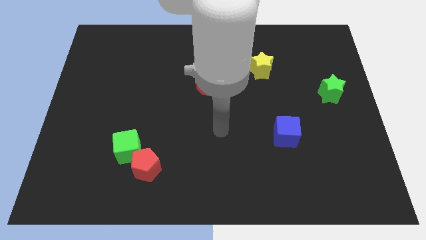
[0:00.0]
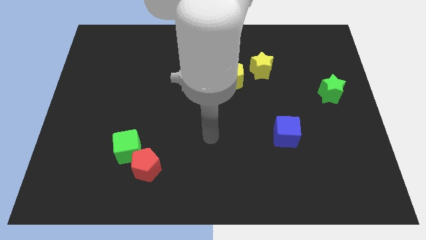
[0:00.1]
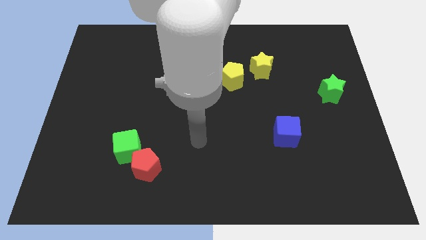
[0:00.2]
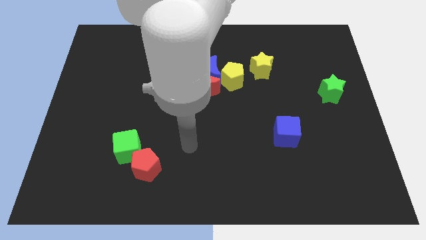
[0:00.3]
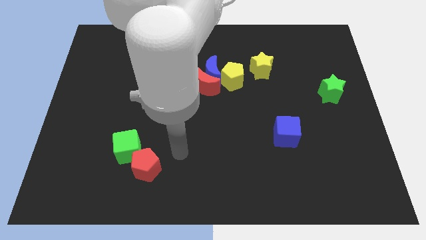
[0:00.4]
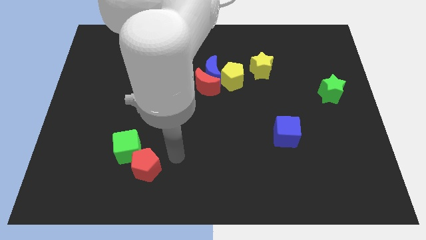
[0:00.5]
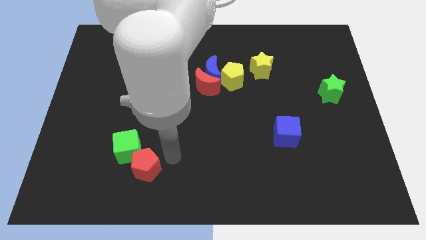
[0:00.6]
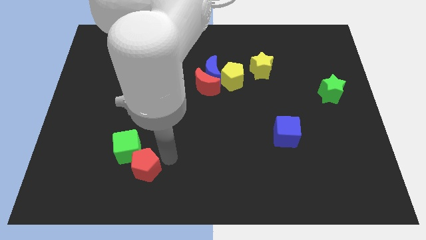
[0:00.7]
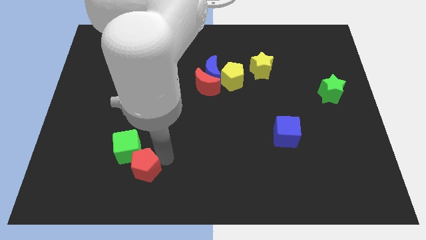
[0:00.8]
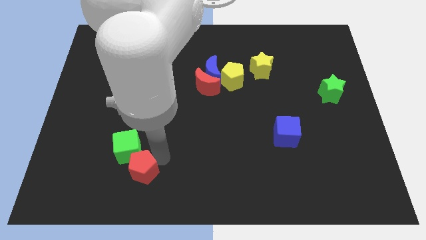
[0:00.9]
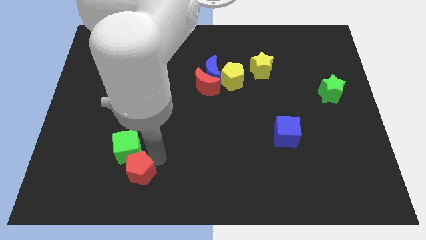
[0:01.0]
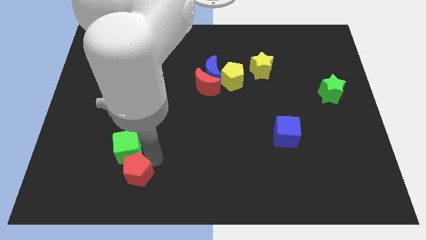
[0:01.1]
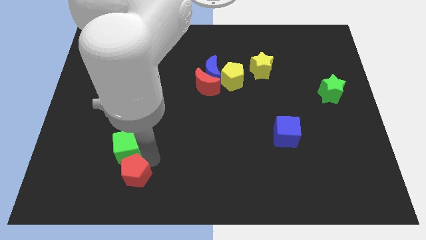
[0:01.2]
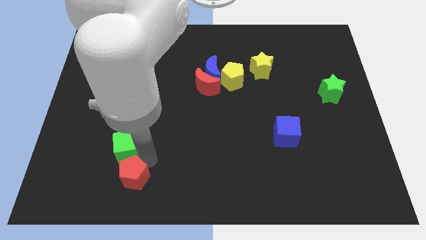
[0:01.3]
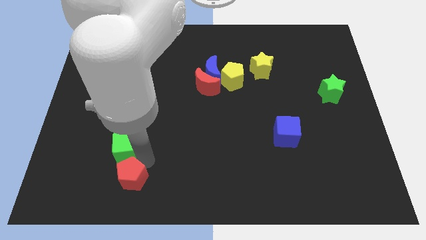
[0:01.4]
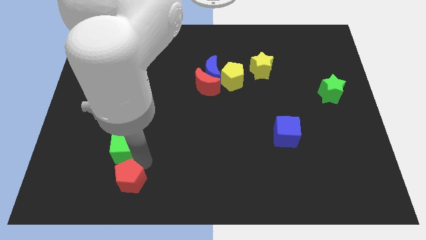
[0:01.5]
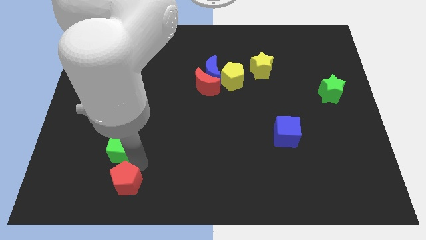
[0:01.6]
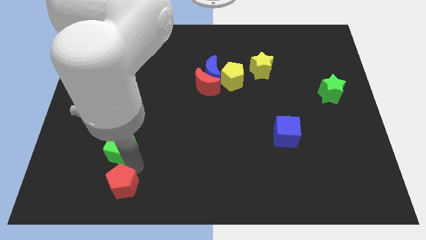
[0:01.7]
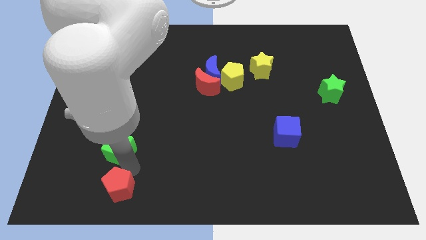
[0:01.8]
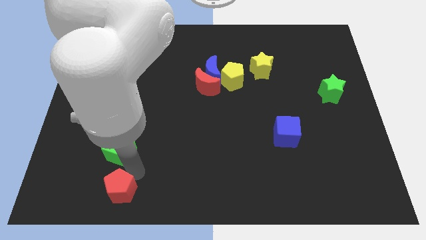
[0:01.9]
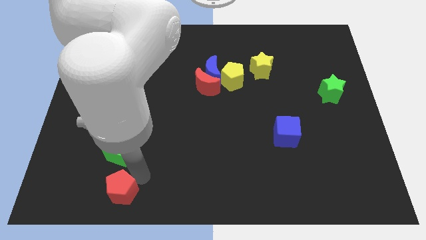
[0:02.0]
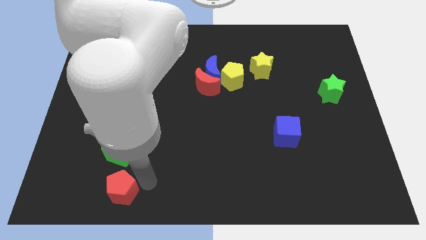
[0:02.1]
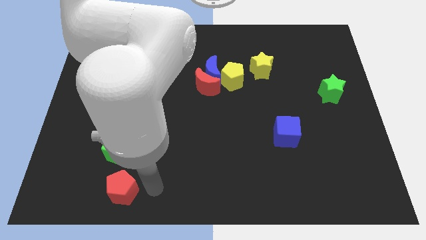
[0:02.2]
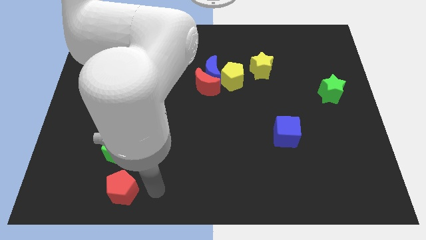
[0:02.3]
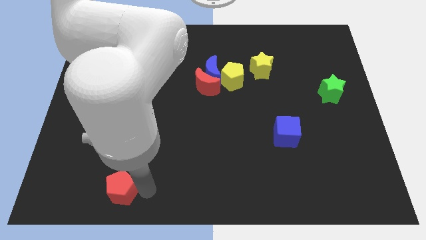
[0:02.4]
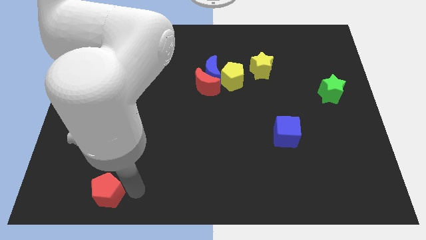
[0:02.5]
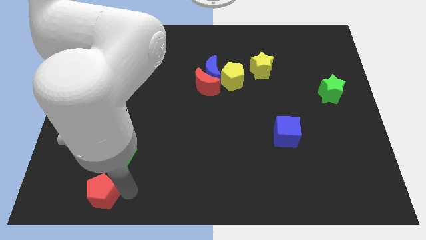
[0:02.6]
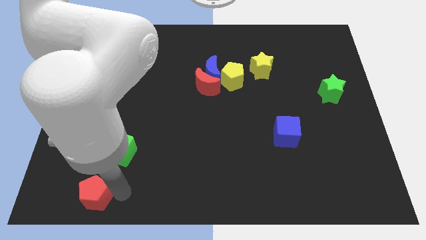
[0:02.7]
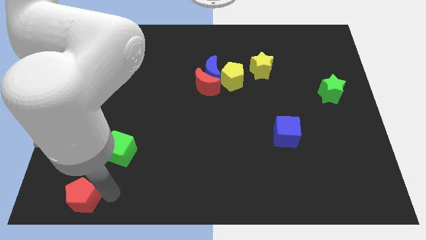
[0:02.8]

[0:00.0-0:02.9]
push the red pentagon to the bottom left corner

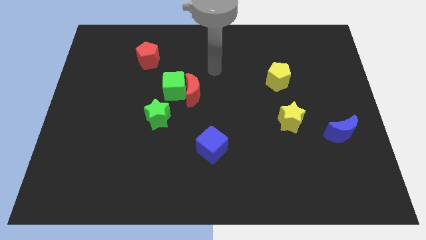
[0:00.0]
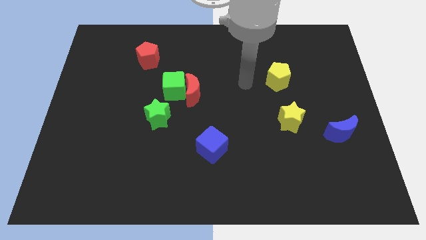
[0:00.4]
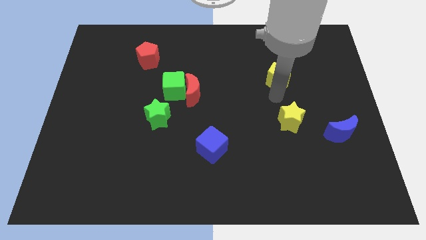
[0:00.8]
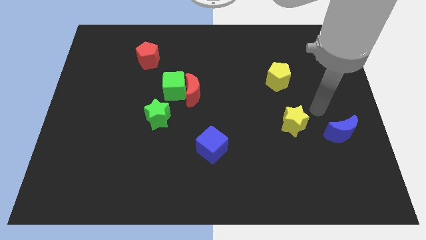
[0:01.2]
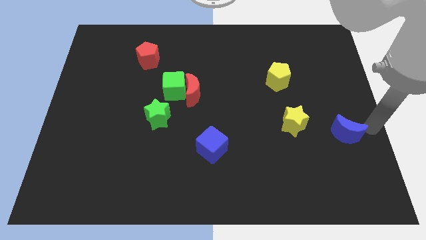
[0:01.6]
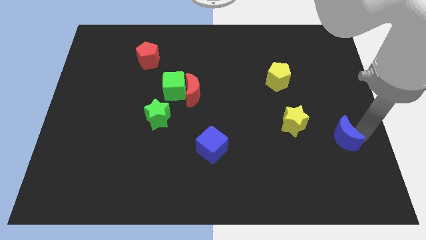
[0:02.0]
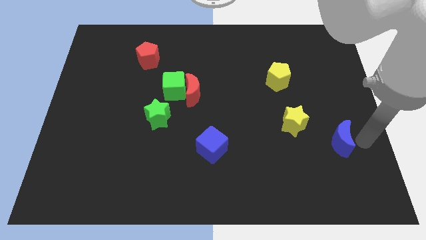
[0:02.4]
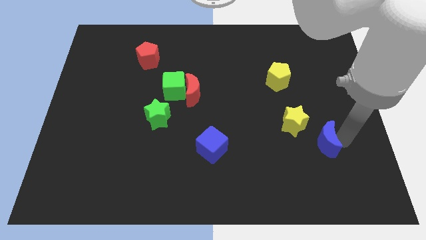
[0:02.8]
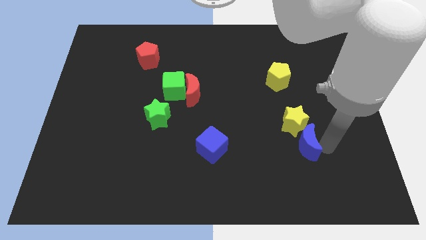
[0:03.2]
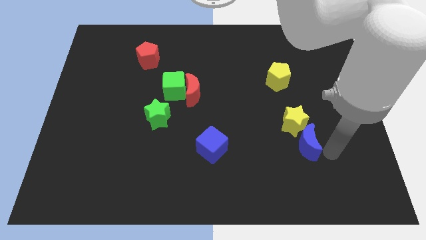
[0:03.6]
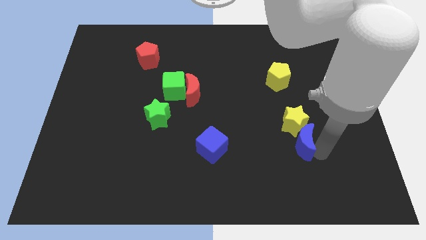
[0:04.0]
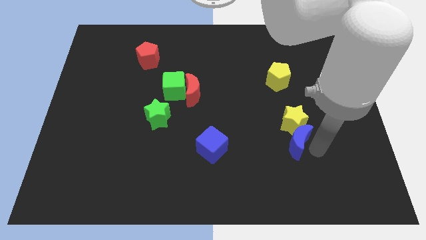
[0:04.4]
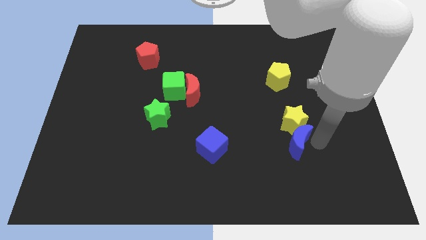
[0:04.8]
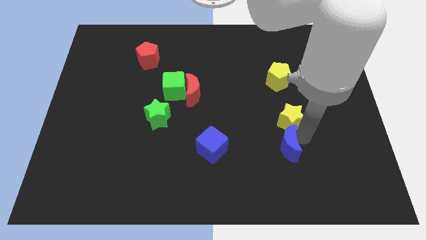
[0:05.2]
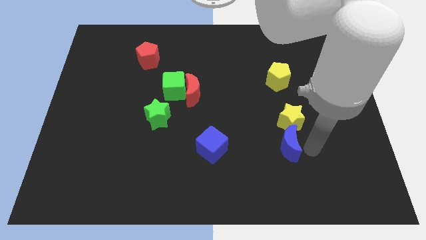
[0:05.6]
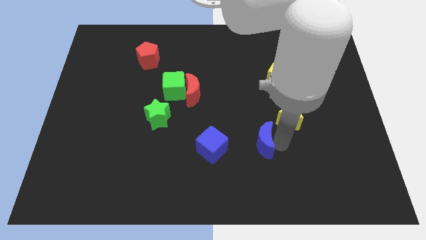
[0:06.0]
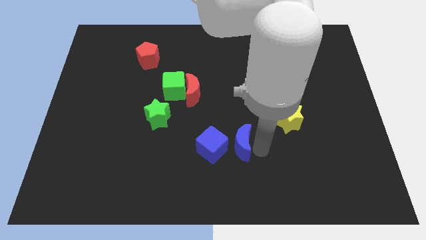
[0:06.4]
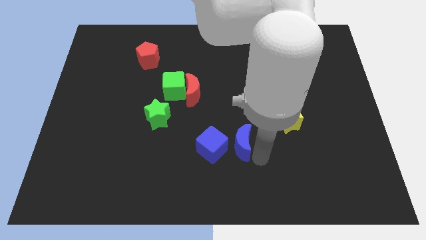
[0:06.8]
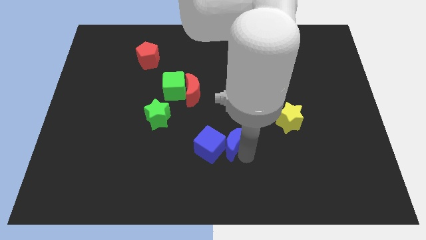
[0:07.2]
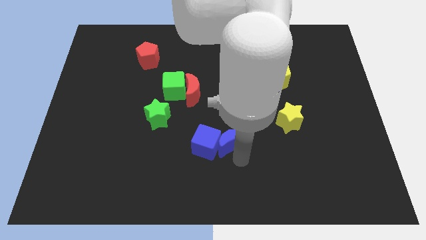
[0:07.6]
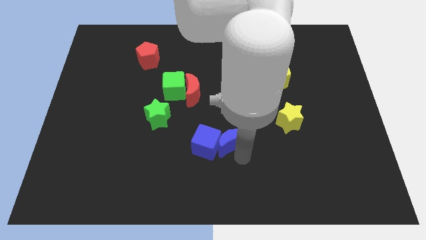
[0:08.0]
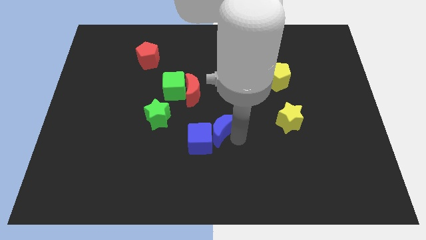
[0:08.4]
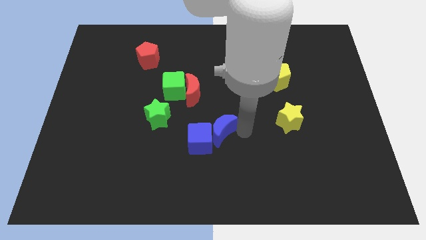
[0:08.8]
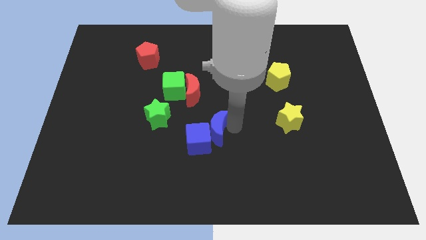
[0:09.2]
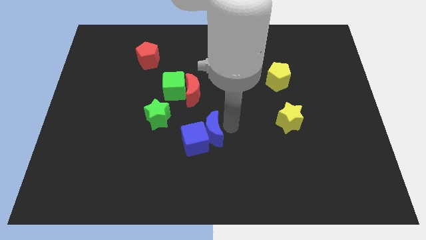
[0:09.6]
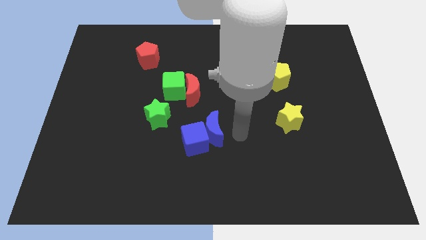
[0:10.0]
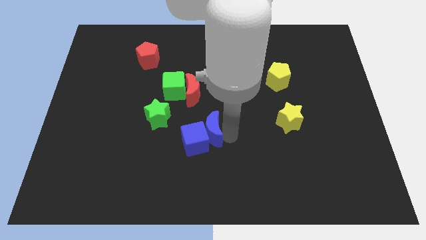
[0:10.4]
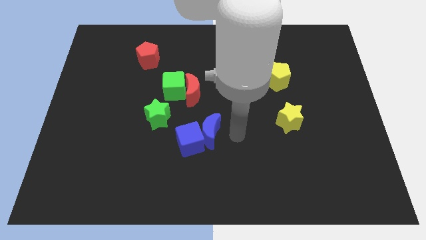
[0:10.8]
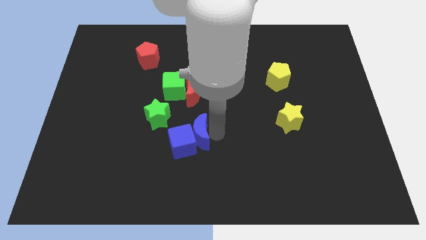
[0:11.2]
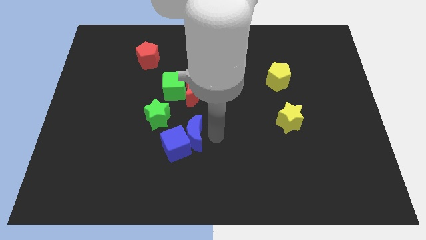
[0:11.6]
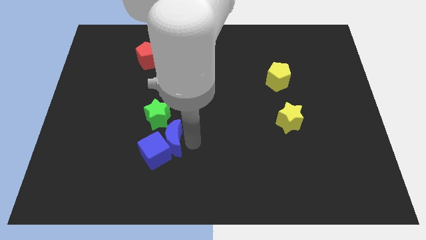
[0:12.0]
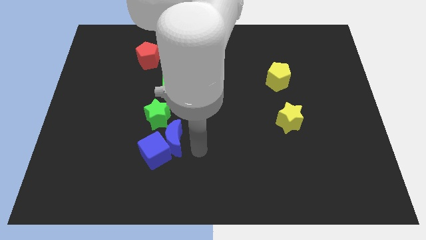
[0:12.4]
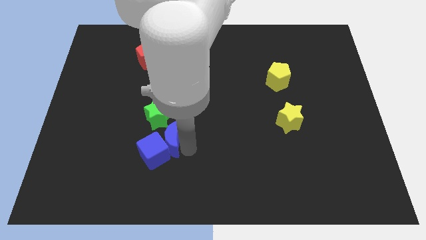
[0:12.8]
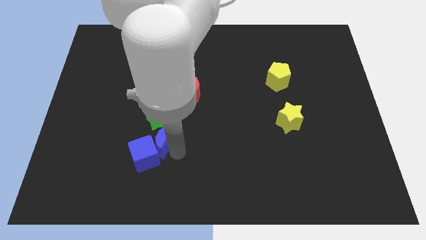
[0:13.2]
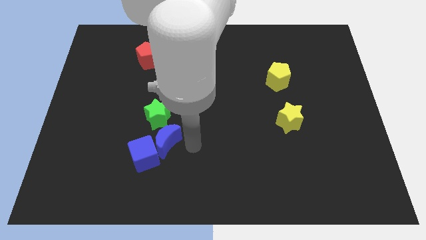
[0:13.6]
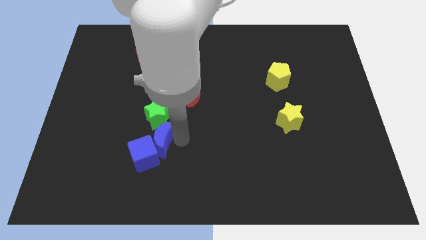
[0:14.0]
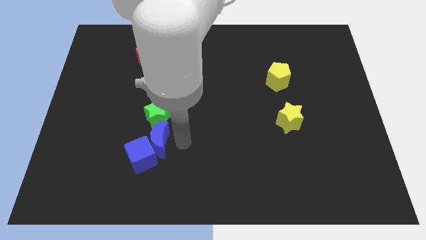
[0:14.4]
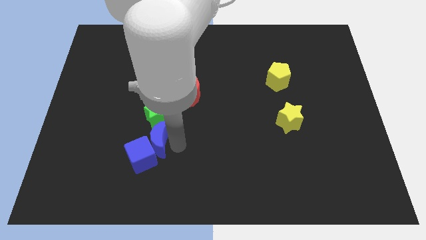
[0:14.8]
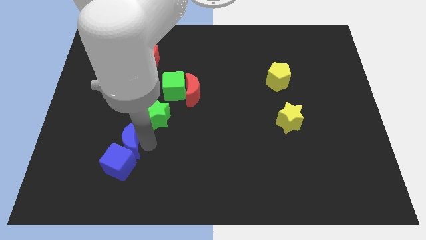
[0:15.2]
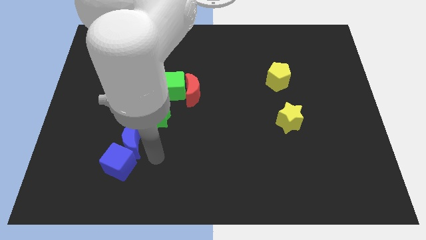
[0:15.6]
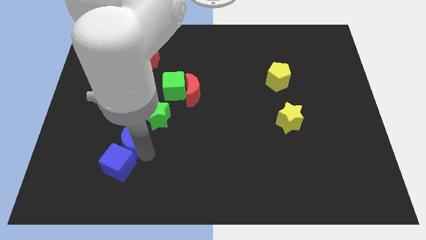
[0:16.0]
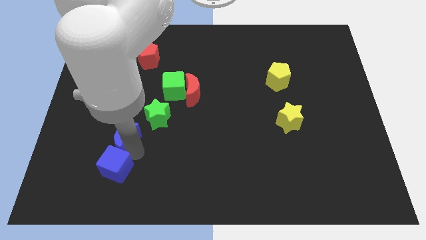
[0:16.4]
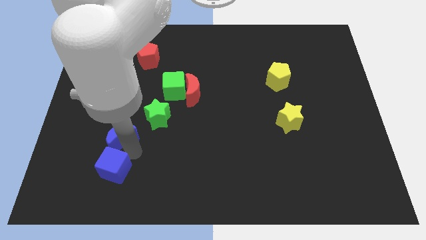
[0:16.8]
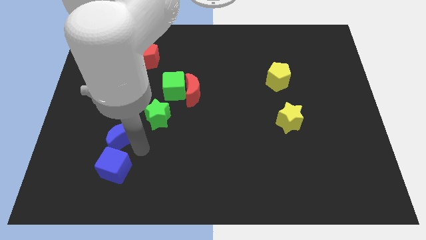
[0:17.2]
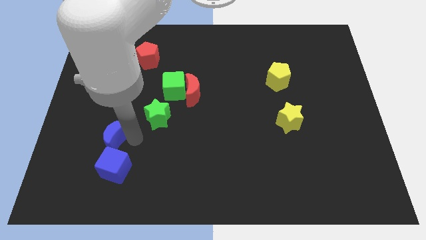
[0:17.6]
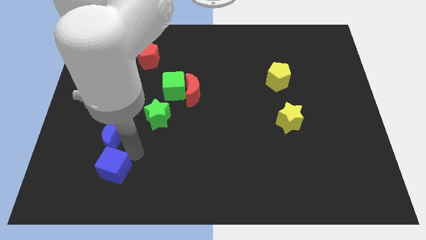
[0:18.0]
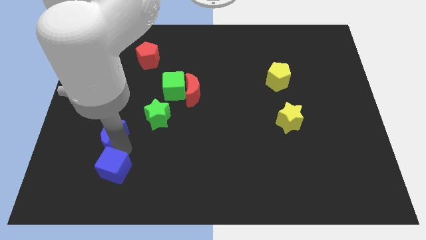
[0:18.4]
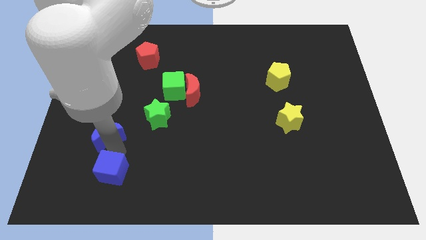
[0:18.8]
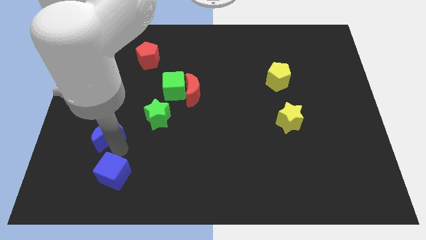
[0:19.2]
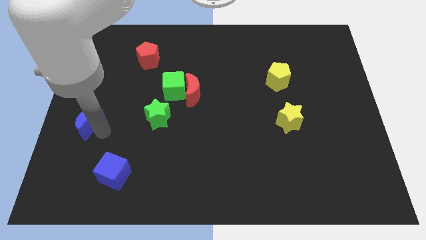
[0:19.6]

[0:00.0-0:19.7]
slide the blue moon to the left side of the board
